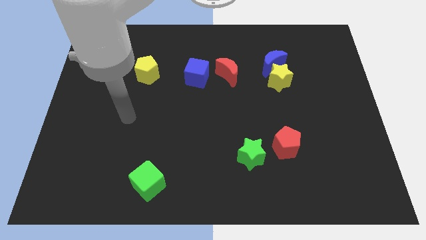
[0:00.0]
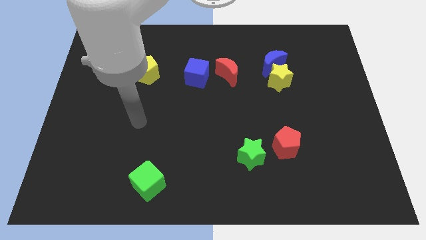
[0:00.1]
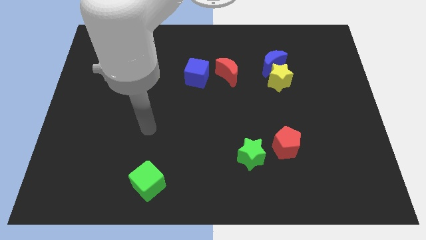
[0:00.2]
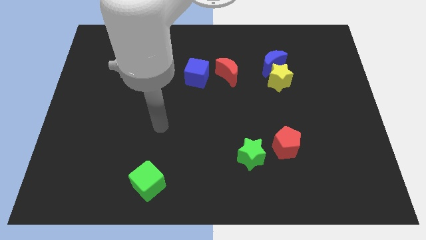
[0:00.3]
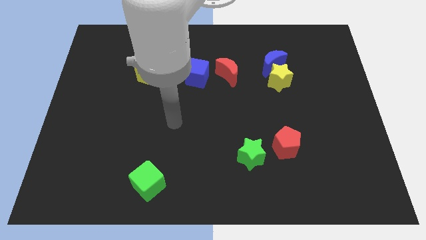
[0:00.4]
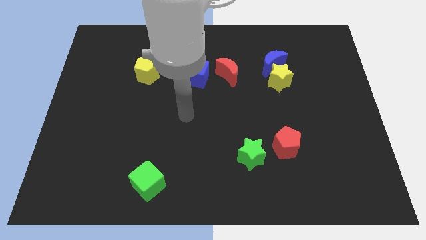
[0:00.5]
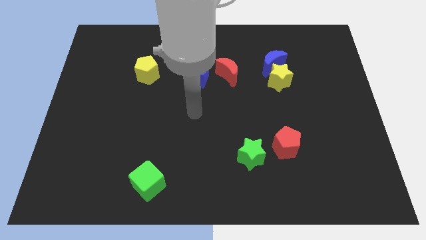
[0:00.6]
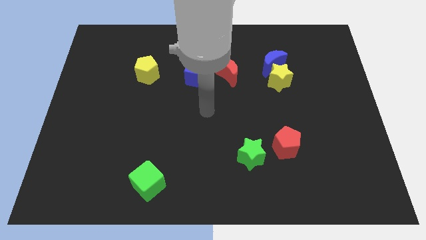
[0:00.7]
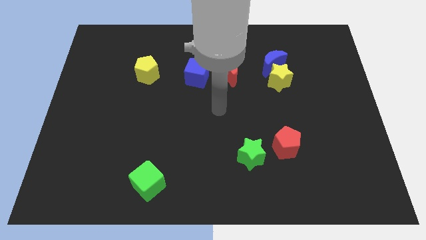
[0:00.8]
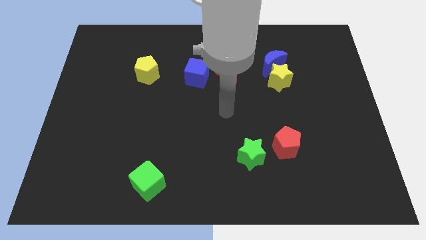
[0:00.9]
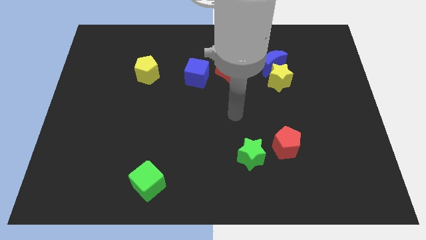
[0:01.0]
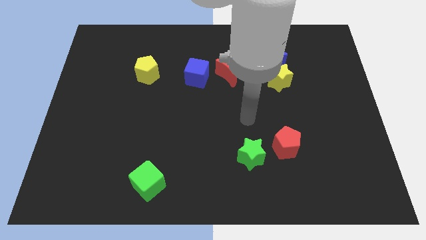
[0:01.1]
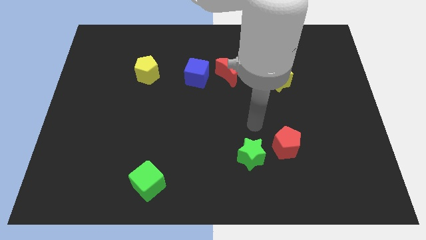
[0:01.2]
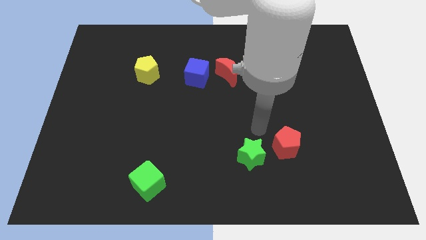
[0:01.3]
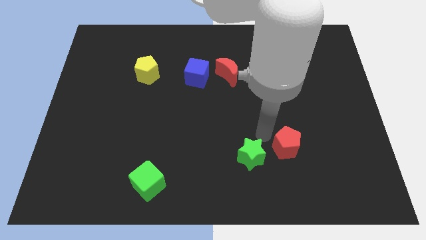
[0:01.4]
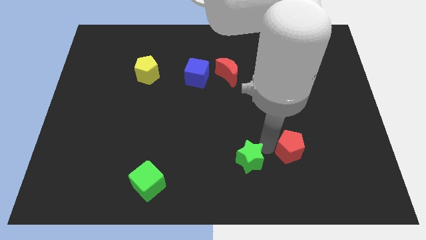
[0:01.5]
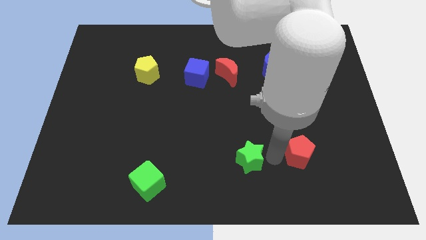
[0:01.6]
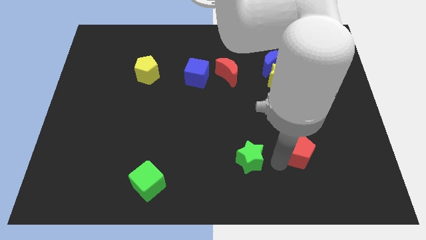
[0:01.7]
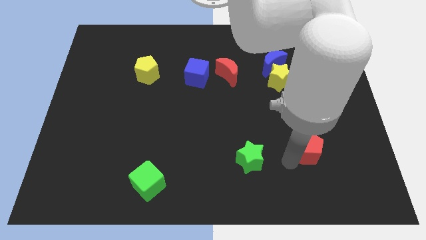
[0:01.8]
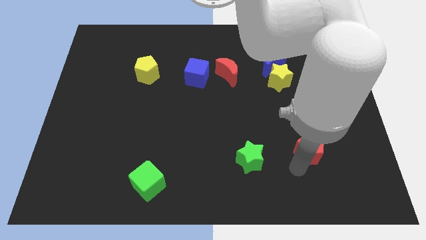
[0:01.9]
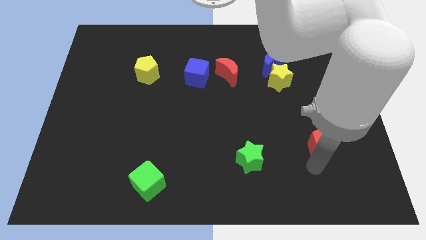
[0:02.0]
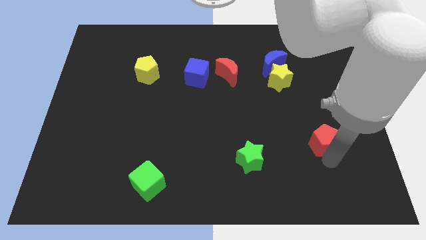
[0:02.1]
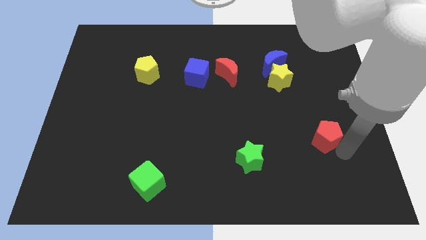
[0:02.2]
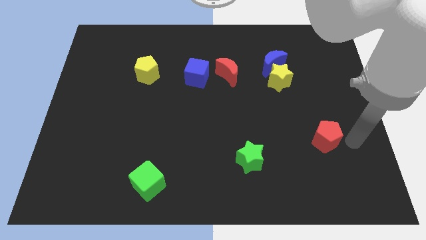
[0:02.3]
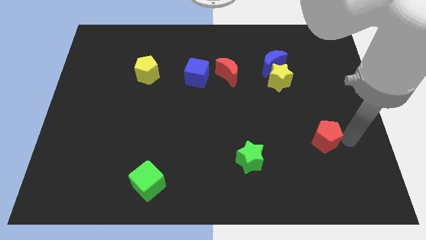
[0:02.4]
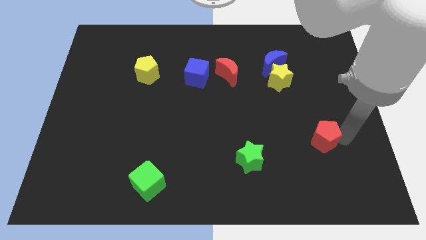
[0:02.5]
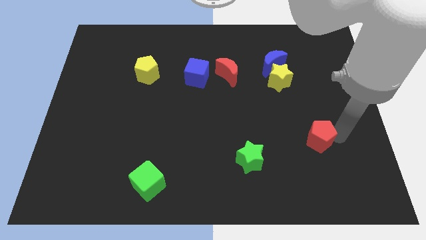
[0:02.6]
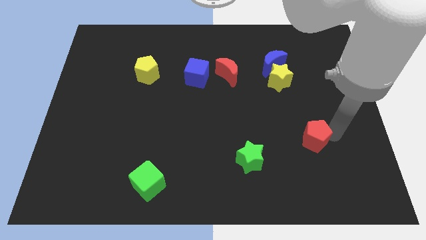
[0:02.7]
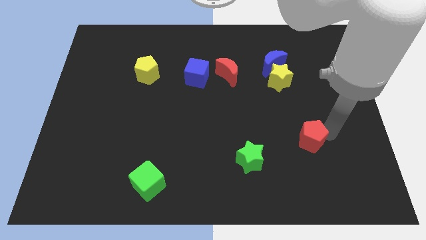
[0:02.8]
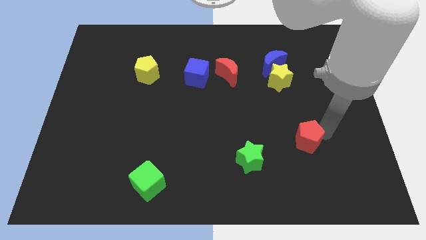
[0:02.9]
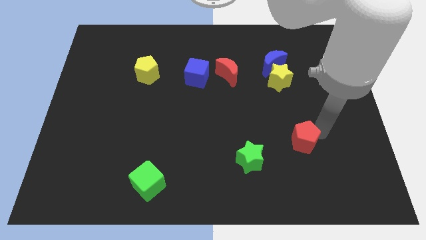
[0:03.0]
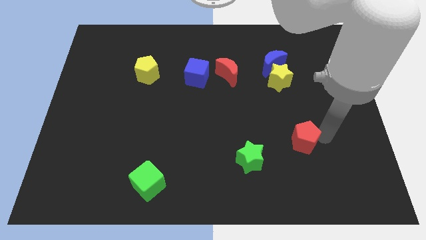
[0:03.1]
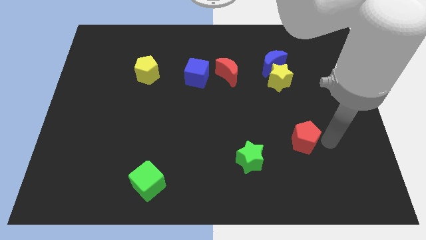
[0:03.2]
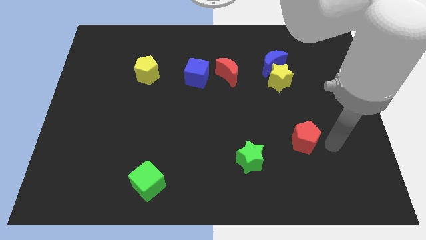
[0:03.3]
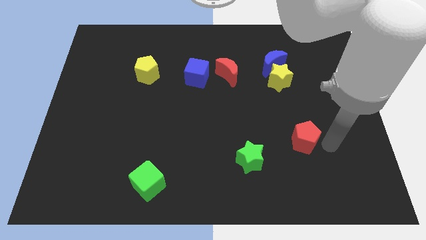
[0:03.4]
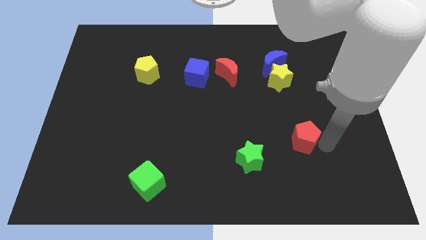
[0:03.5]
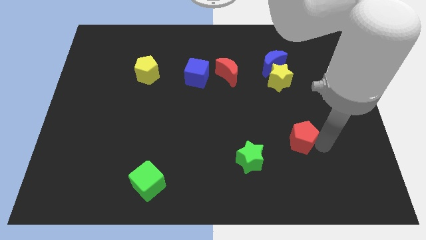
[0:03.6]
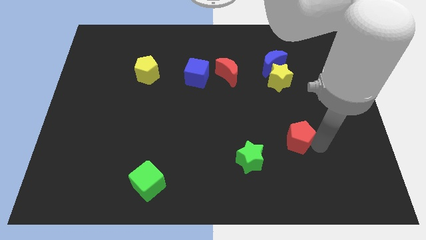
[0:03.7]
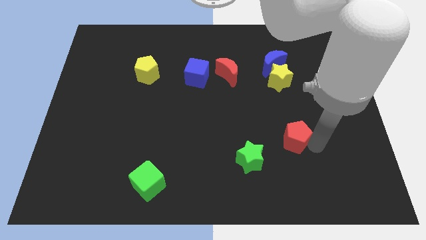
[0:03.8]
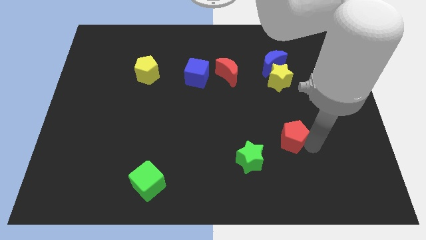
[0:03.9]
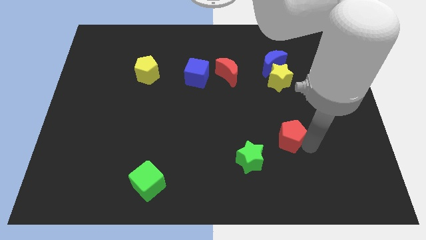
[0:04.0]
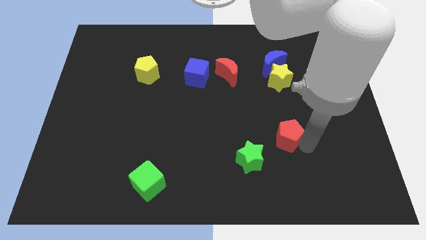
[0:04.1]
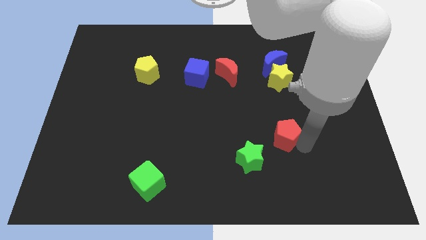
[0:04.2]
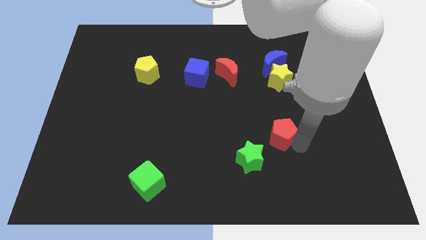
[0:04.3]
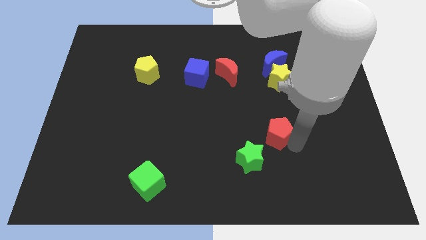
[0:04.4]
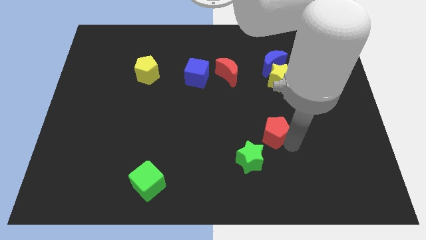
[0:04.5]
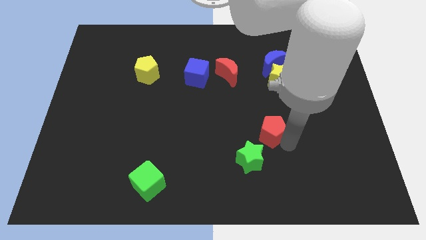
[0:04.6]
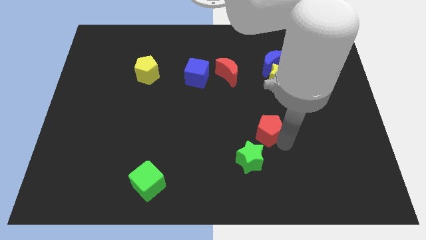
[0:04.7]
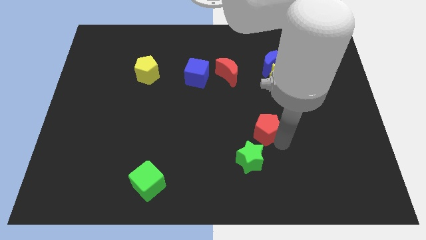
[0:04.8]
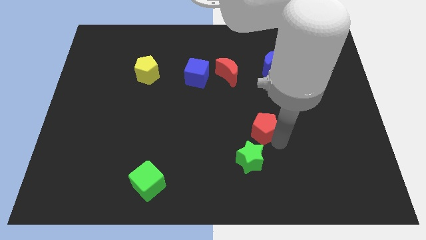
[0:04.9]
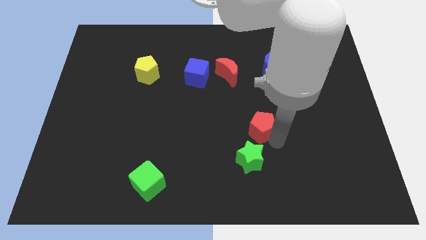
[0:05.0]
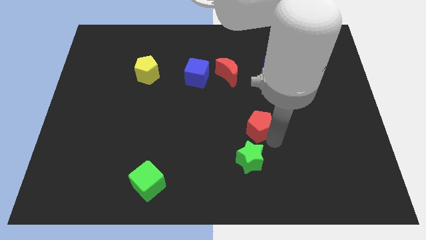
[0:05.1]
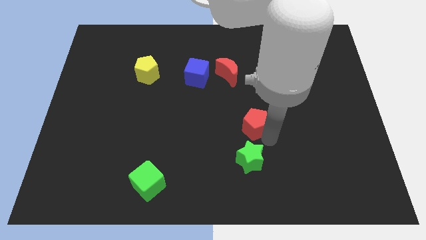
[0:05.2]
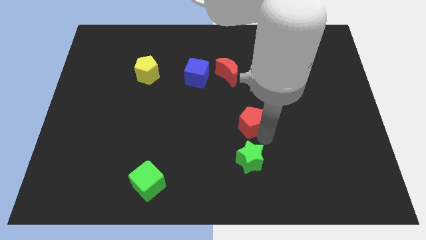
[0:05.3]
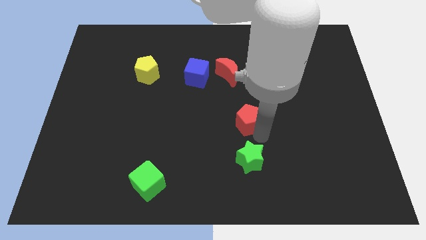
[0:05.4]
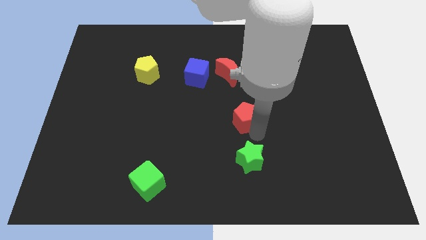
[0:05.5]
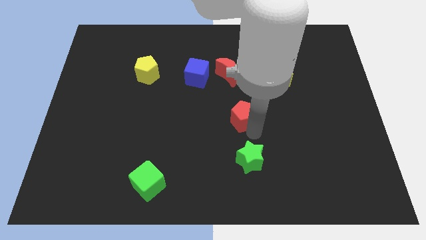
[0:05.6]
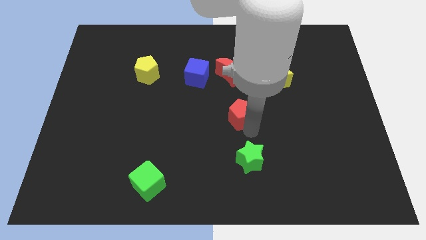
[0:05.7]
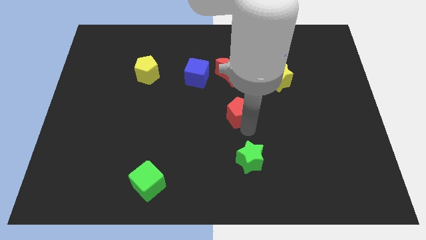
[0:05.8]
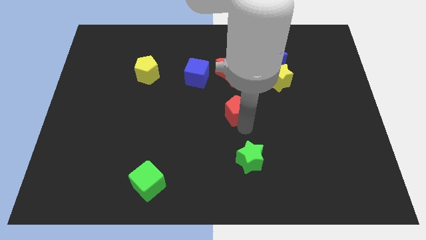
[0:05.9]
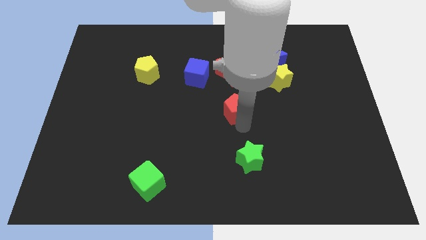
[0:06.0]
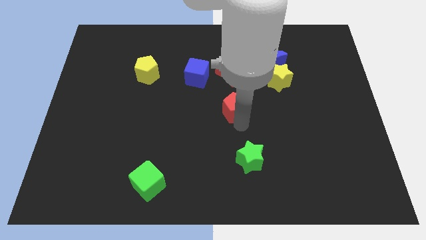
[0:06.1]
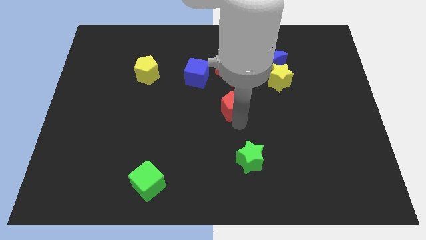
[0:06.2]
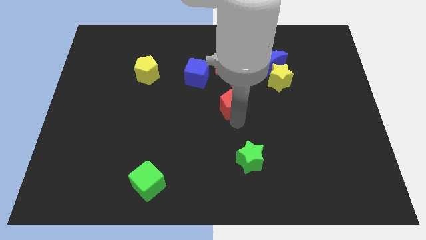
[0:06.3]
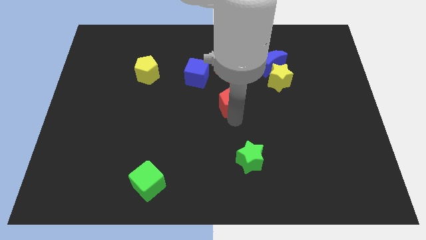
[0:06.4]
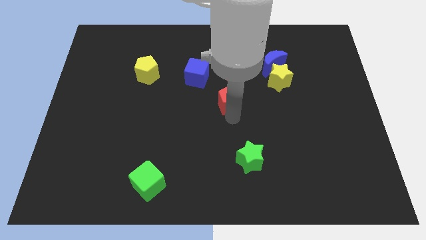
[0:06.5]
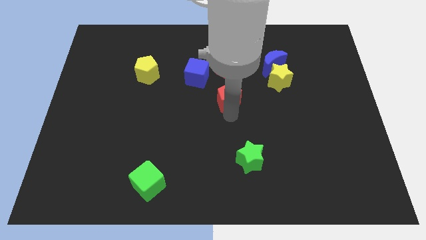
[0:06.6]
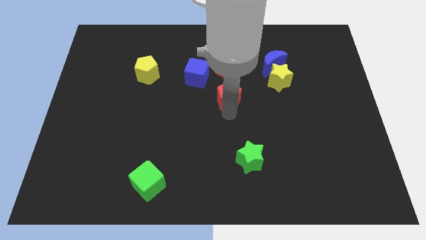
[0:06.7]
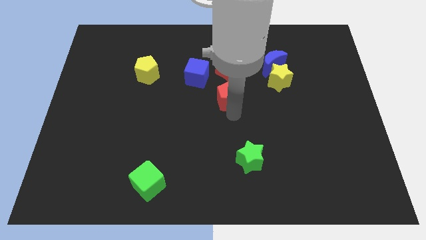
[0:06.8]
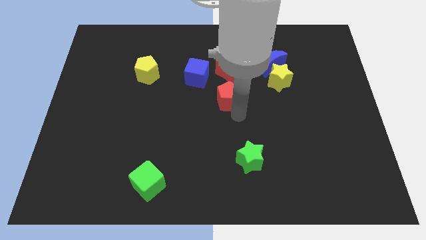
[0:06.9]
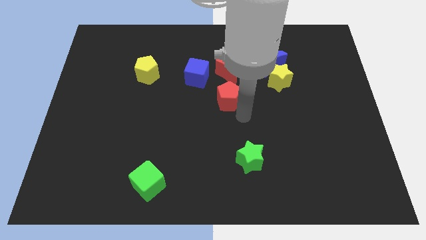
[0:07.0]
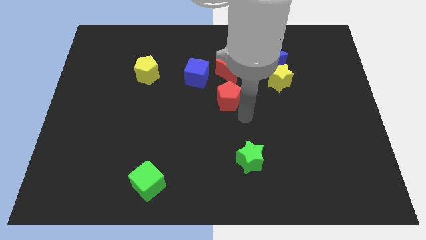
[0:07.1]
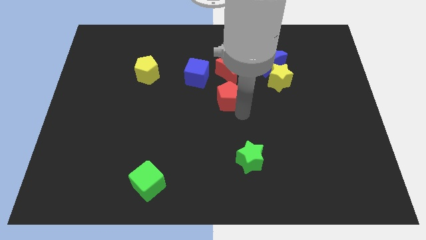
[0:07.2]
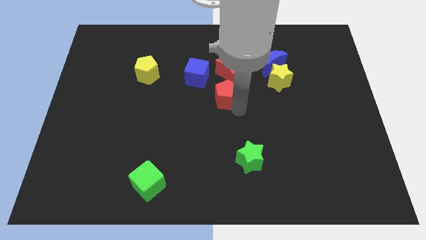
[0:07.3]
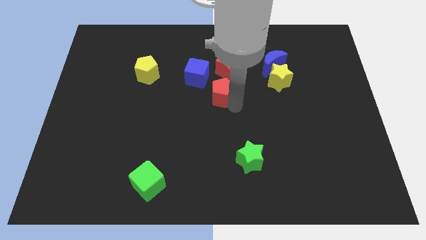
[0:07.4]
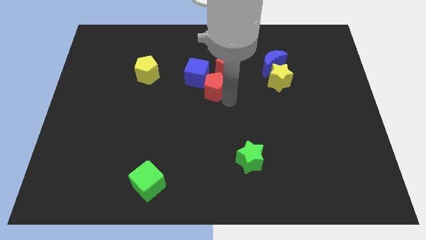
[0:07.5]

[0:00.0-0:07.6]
push the red pentagon next to the blue cube
